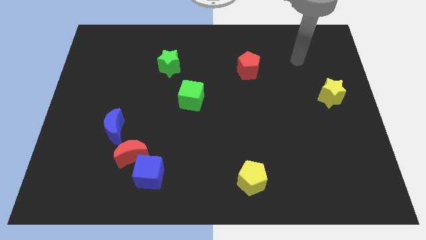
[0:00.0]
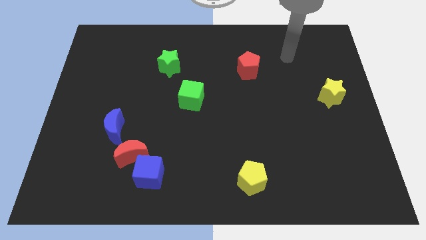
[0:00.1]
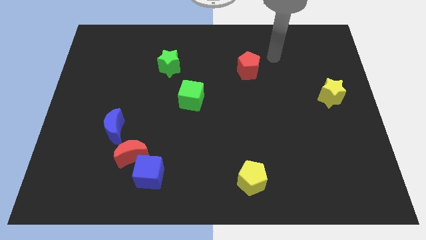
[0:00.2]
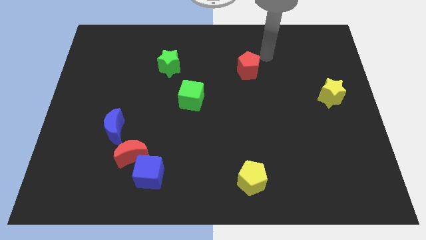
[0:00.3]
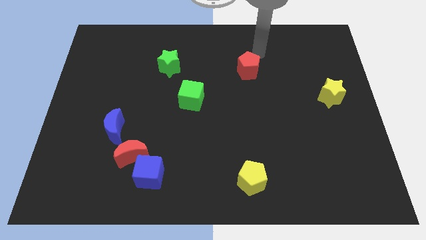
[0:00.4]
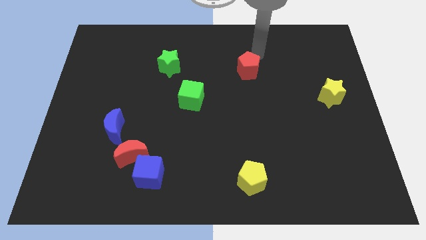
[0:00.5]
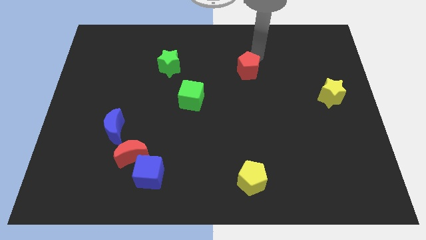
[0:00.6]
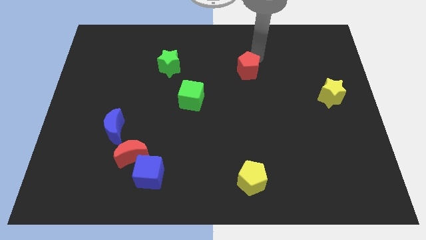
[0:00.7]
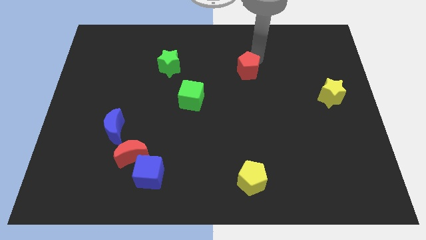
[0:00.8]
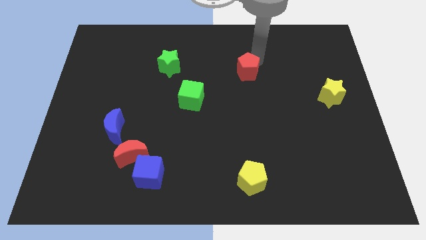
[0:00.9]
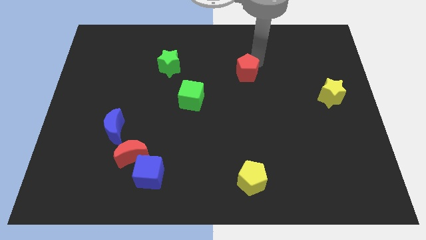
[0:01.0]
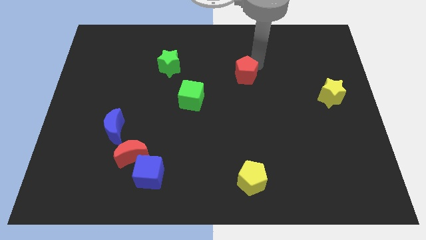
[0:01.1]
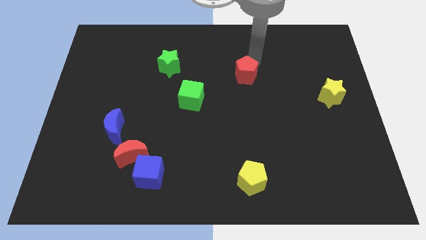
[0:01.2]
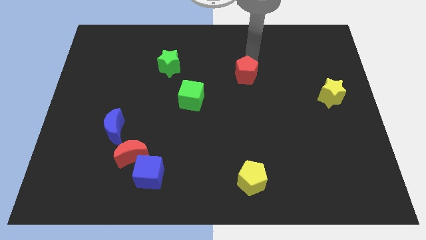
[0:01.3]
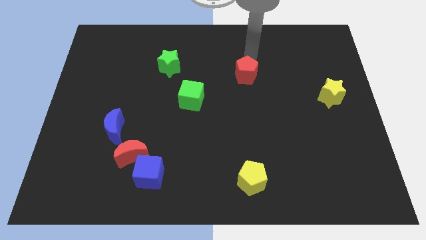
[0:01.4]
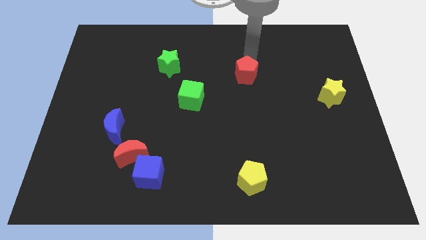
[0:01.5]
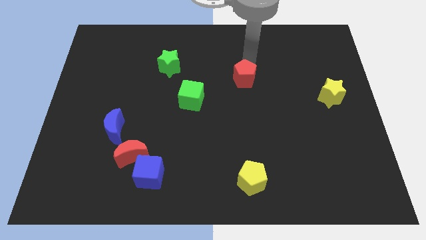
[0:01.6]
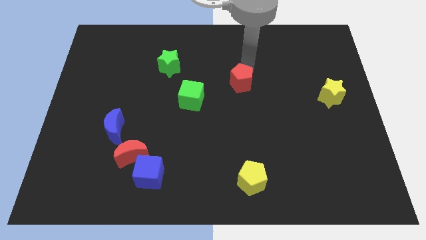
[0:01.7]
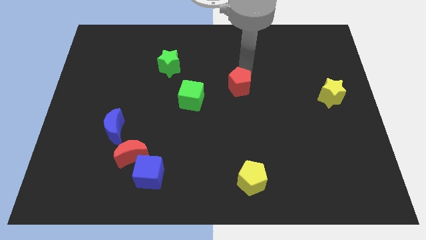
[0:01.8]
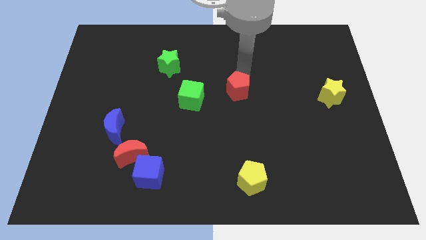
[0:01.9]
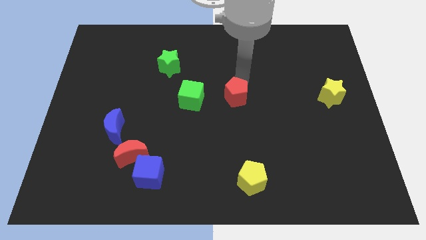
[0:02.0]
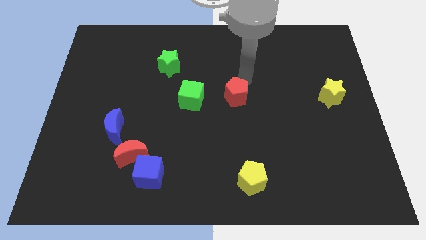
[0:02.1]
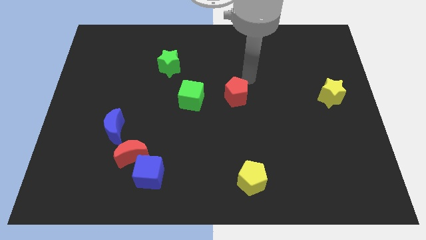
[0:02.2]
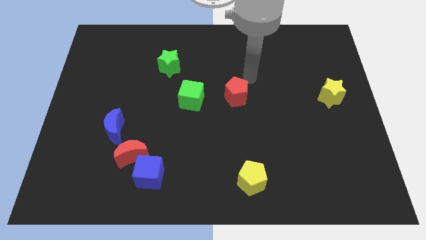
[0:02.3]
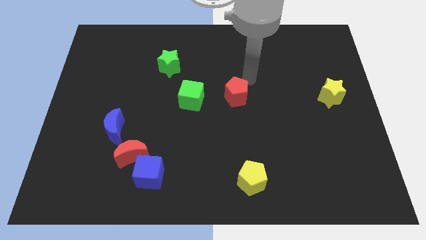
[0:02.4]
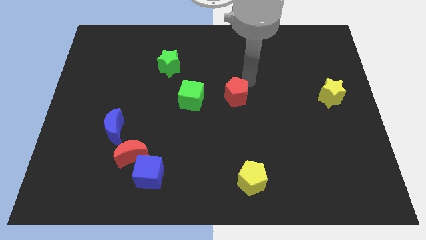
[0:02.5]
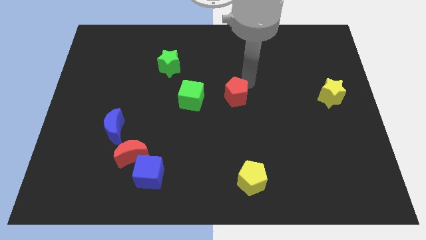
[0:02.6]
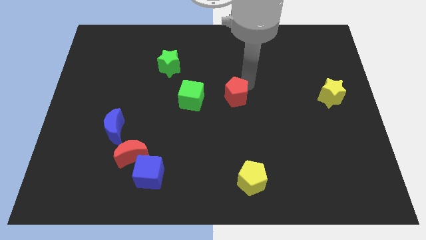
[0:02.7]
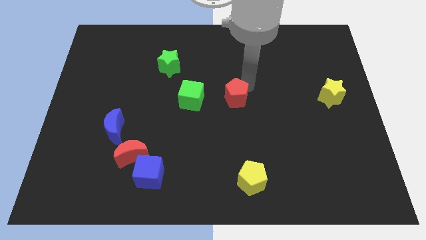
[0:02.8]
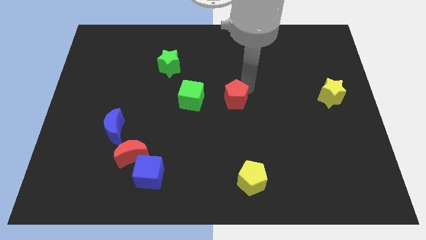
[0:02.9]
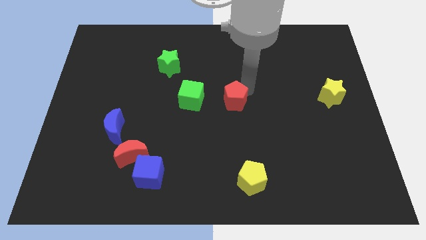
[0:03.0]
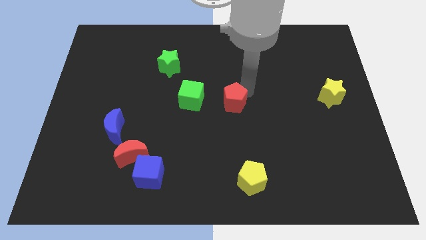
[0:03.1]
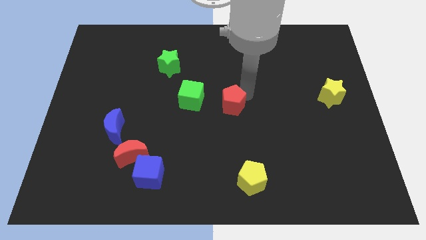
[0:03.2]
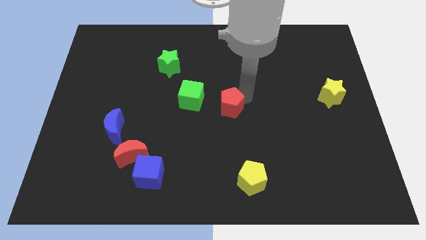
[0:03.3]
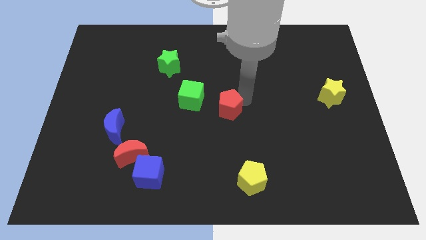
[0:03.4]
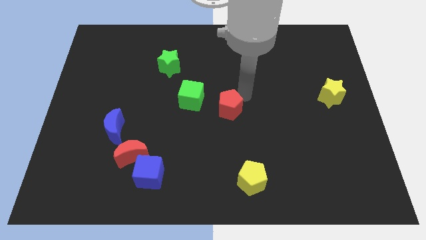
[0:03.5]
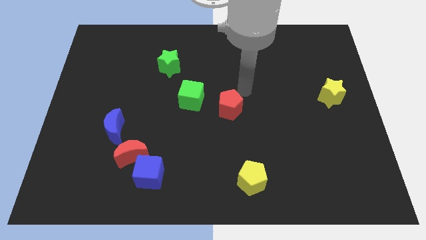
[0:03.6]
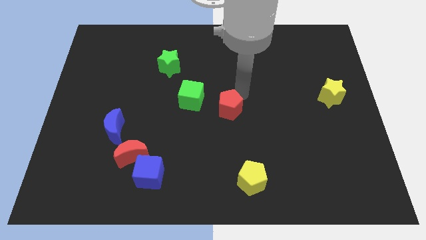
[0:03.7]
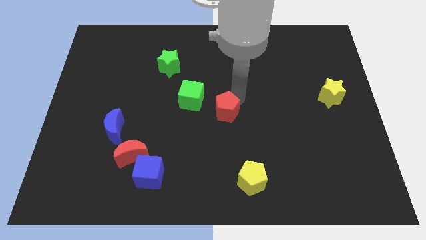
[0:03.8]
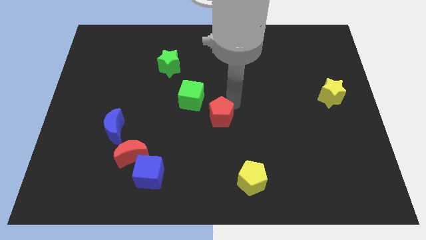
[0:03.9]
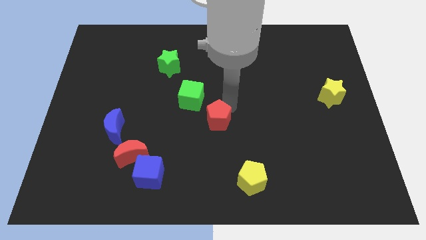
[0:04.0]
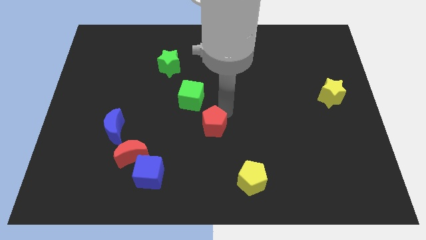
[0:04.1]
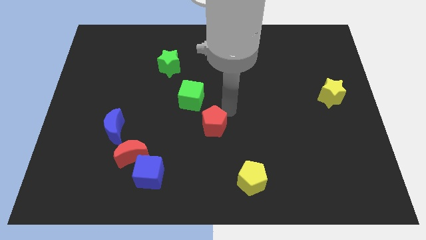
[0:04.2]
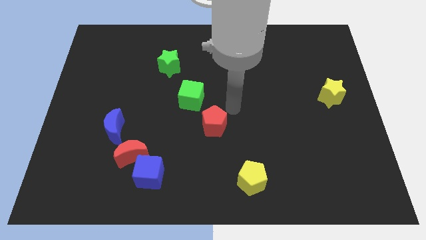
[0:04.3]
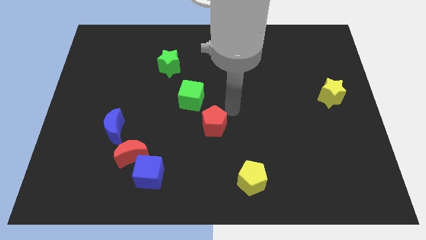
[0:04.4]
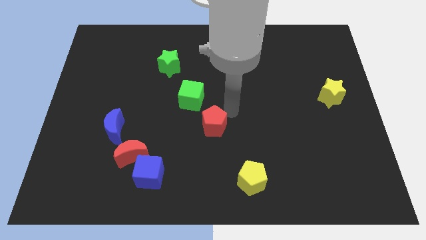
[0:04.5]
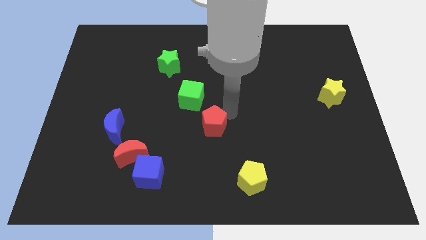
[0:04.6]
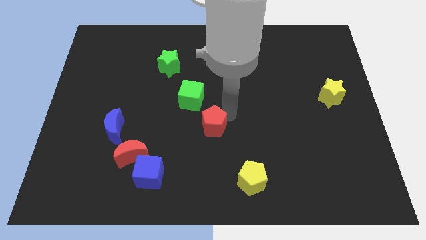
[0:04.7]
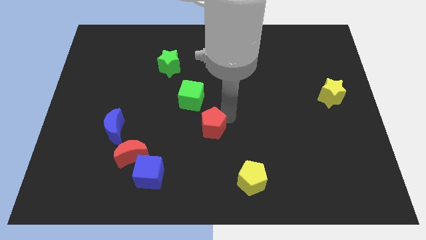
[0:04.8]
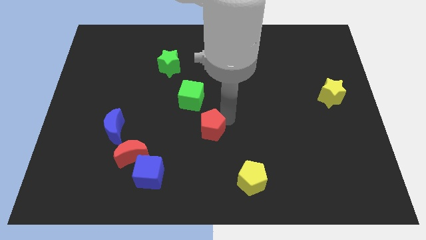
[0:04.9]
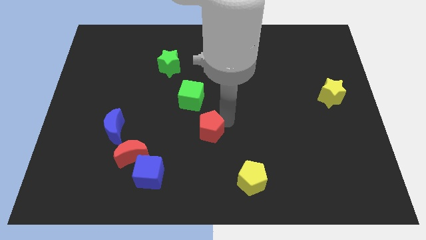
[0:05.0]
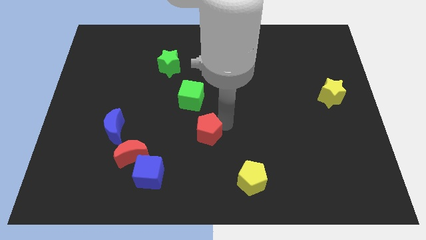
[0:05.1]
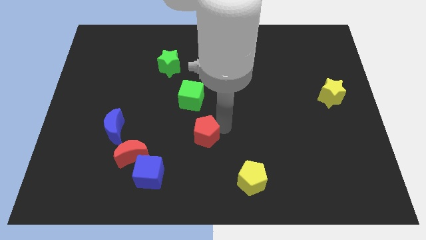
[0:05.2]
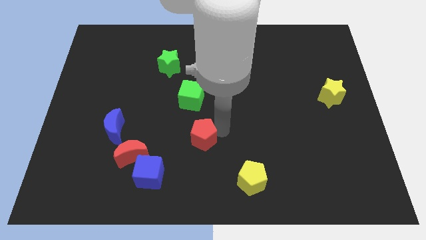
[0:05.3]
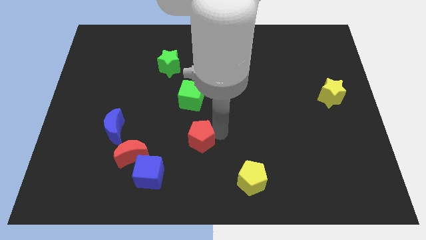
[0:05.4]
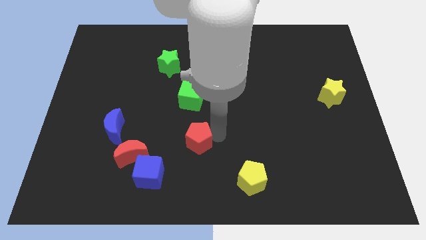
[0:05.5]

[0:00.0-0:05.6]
put the red pentagon to the top right of the blue cube

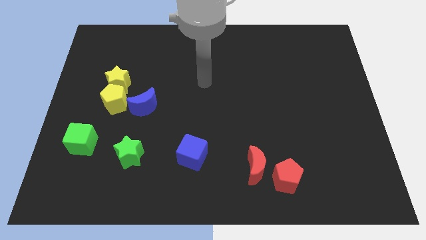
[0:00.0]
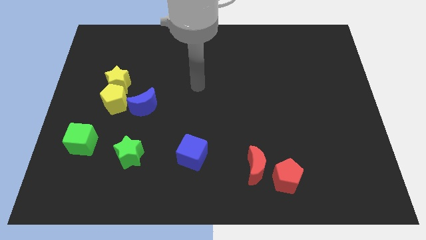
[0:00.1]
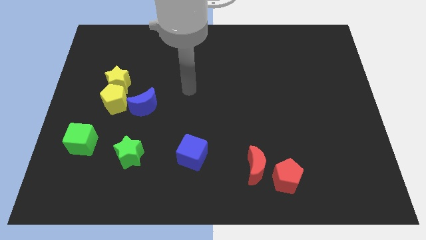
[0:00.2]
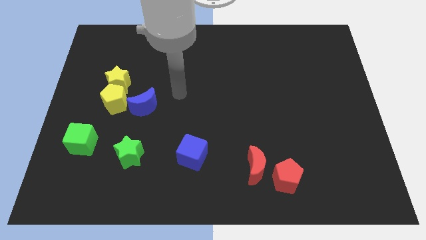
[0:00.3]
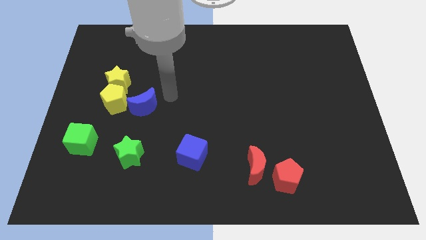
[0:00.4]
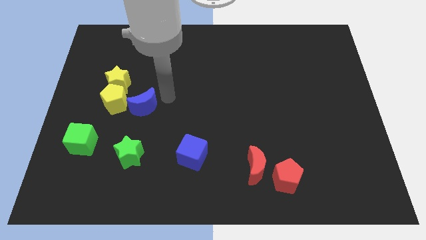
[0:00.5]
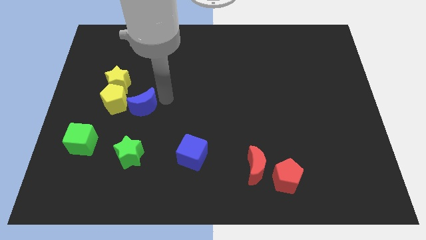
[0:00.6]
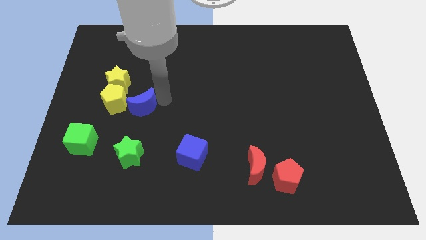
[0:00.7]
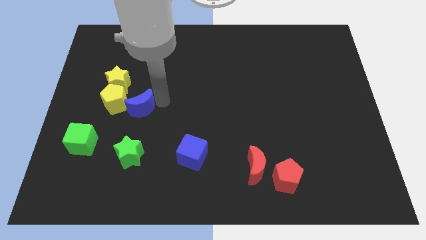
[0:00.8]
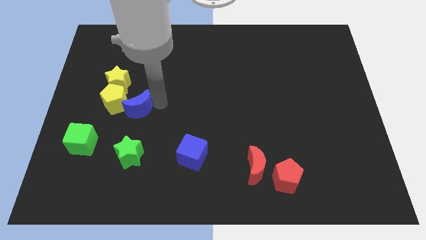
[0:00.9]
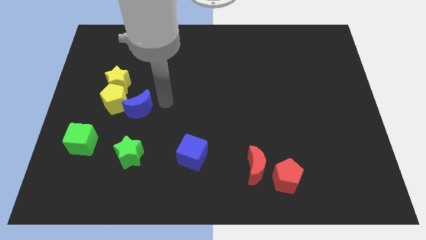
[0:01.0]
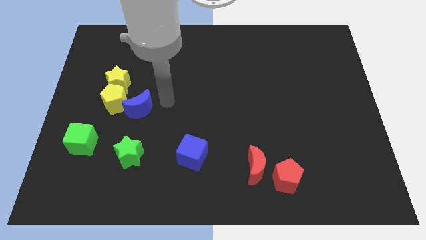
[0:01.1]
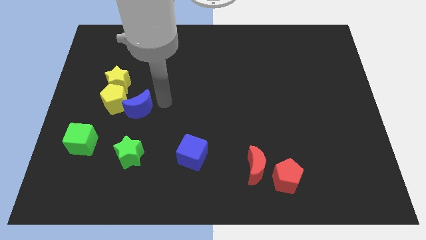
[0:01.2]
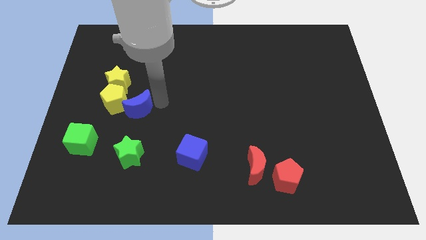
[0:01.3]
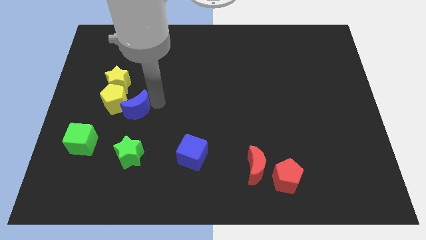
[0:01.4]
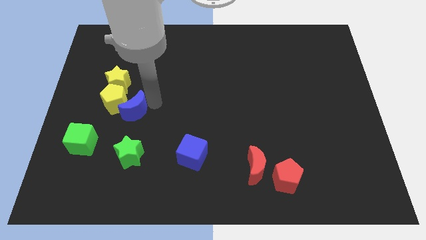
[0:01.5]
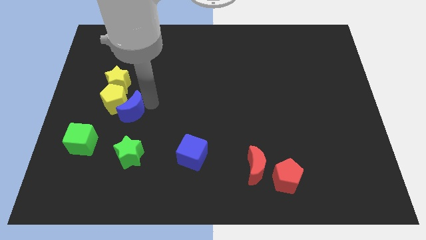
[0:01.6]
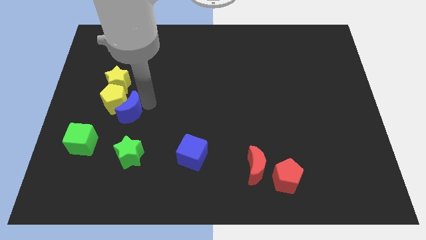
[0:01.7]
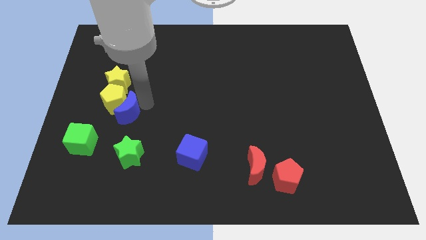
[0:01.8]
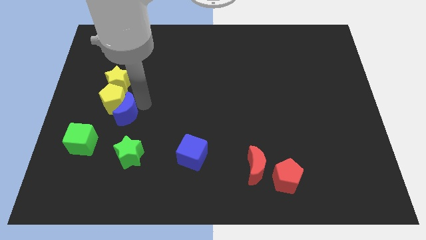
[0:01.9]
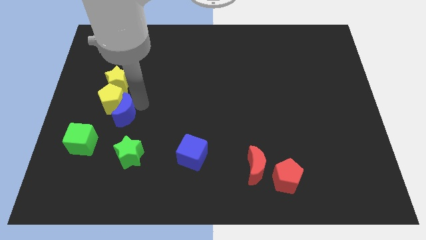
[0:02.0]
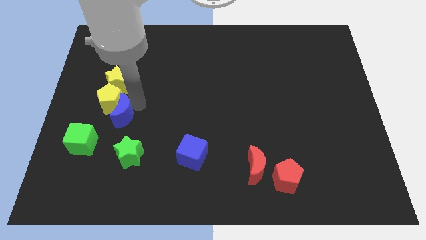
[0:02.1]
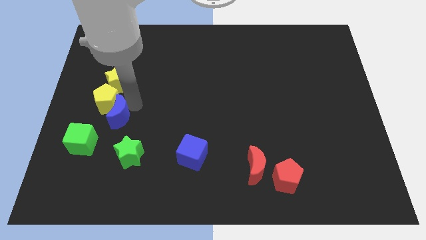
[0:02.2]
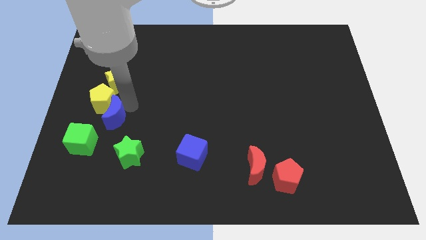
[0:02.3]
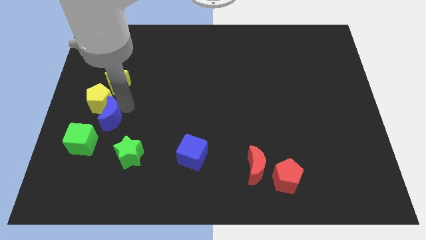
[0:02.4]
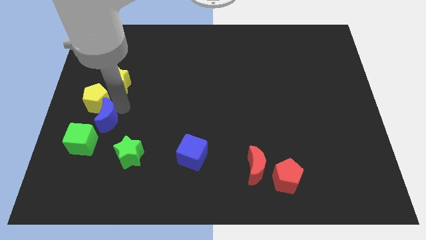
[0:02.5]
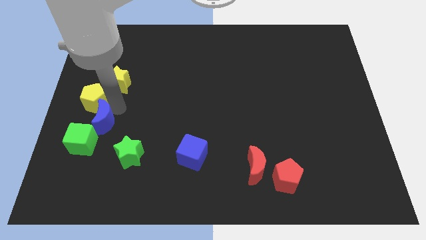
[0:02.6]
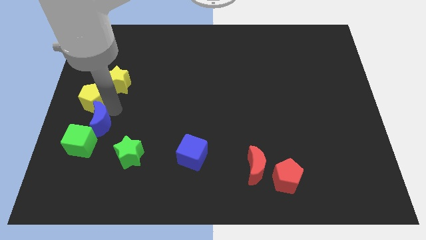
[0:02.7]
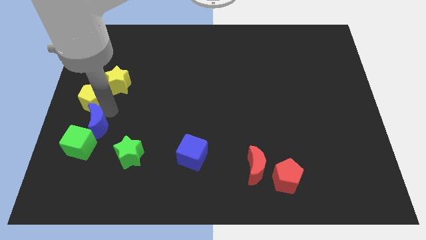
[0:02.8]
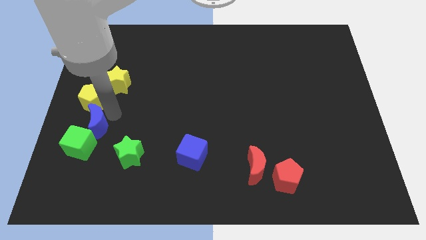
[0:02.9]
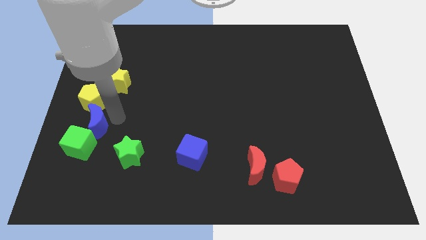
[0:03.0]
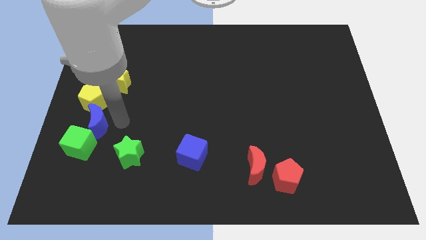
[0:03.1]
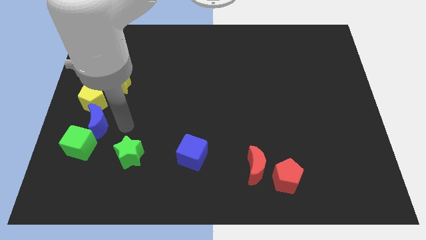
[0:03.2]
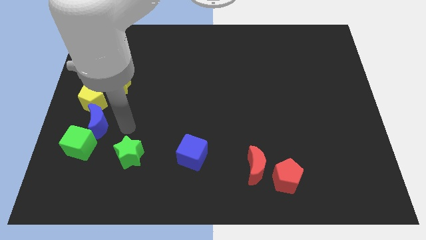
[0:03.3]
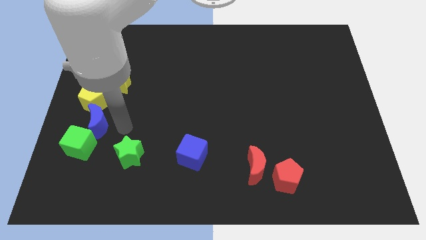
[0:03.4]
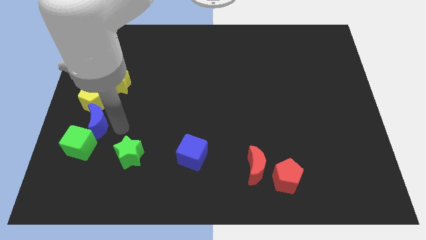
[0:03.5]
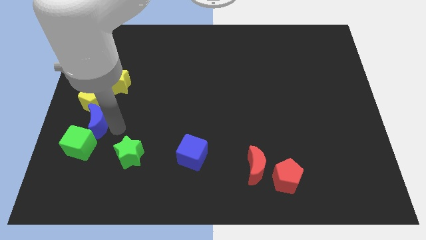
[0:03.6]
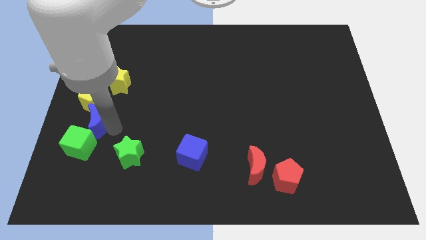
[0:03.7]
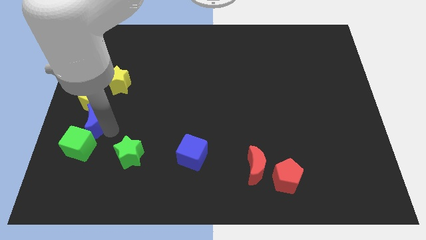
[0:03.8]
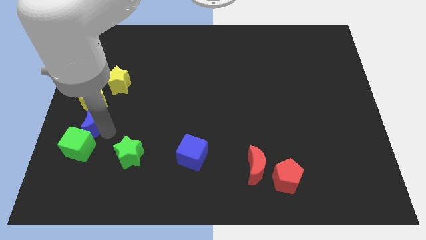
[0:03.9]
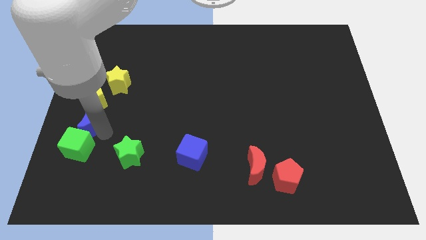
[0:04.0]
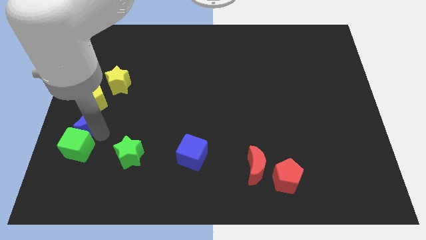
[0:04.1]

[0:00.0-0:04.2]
slide the blue moon to the bottom left side of the yellow pentagon
